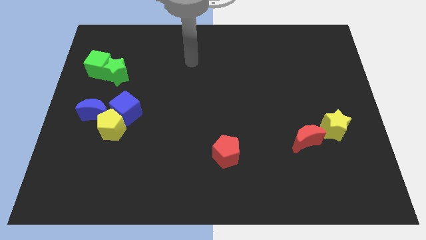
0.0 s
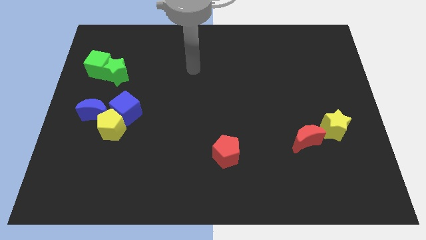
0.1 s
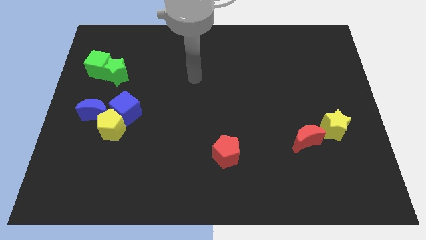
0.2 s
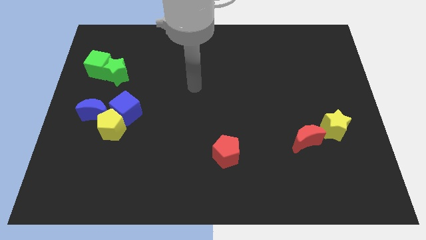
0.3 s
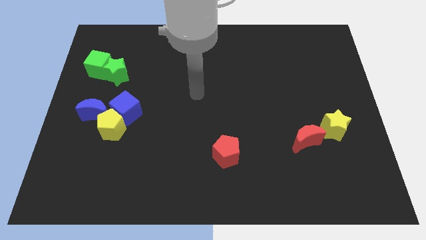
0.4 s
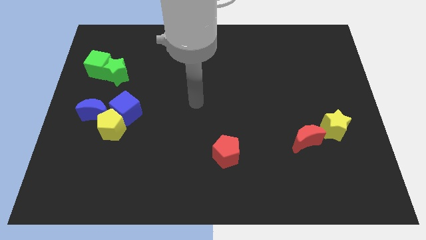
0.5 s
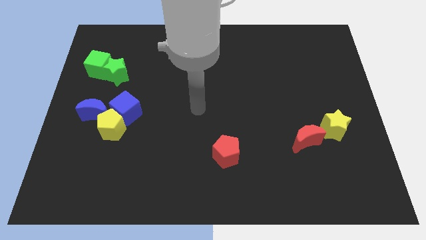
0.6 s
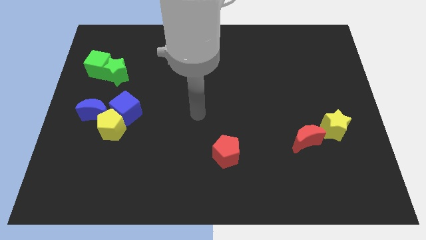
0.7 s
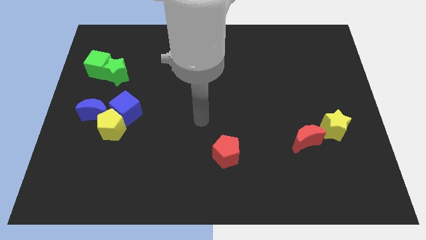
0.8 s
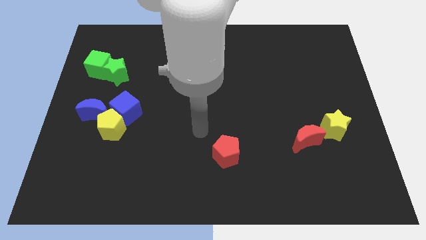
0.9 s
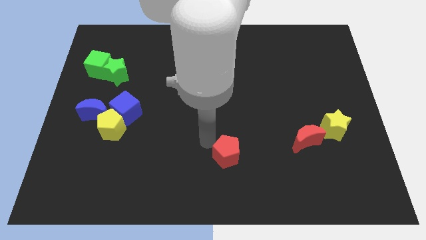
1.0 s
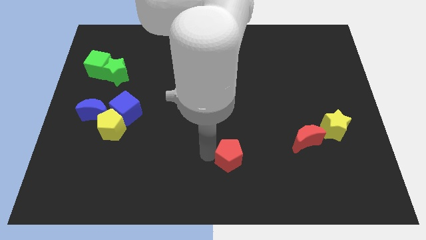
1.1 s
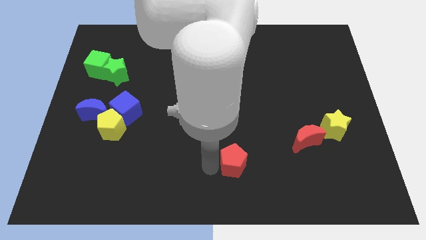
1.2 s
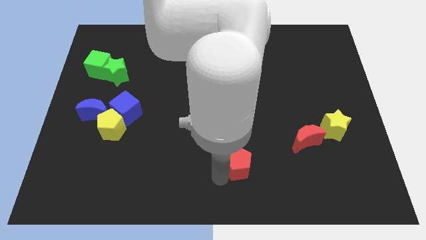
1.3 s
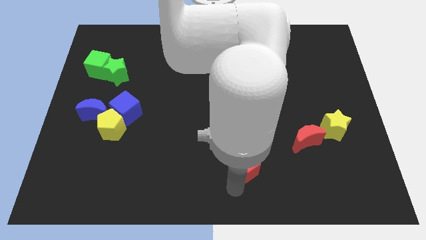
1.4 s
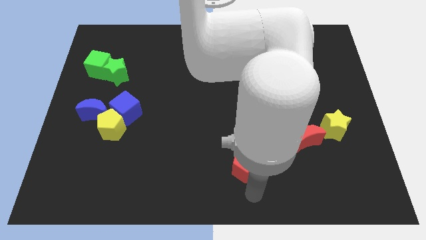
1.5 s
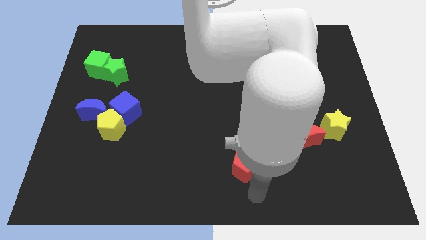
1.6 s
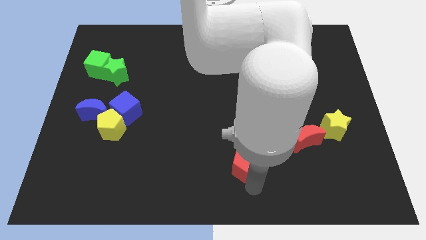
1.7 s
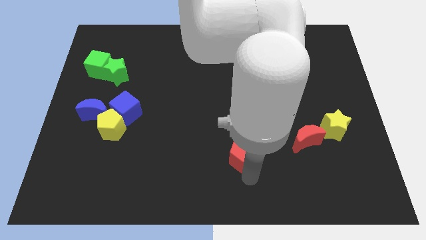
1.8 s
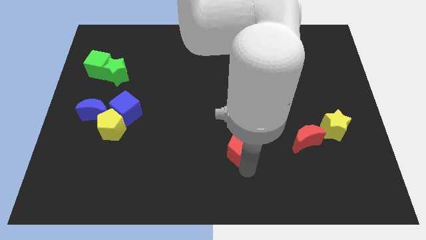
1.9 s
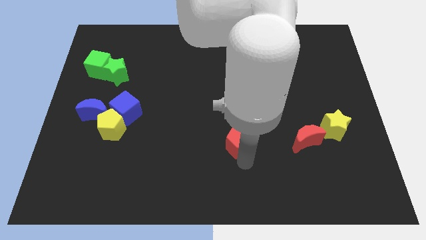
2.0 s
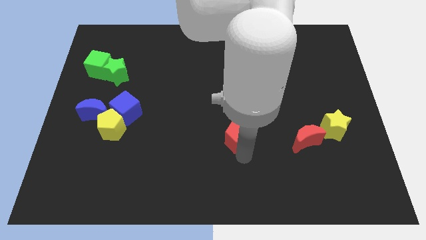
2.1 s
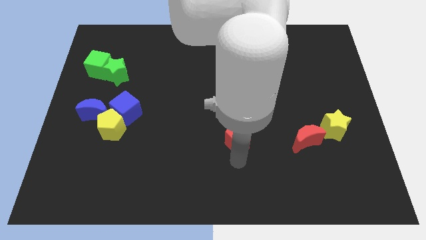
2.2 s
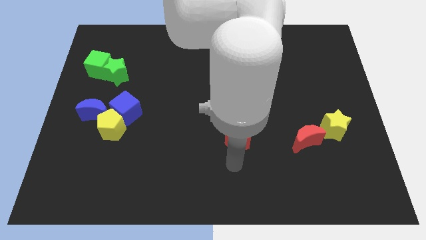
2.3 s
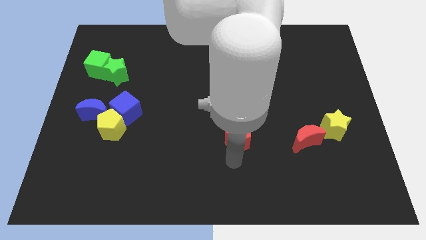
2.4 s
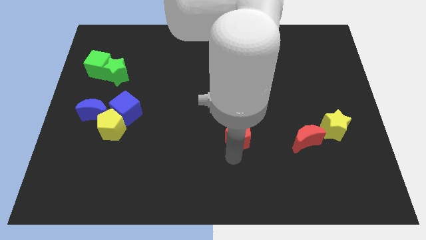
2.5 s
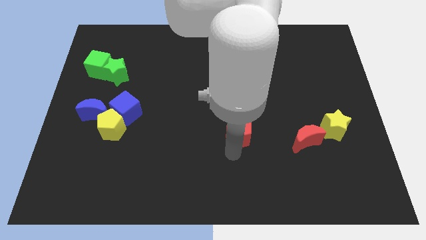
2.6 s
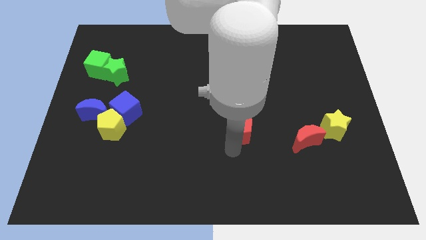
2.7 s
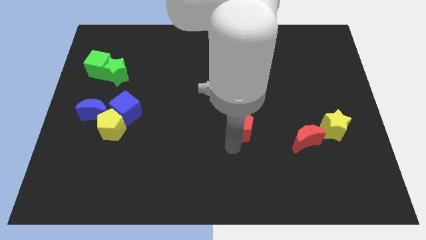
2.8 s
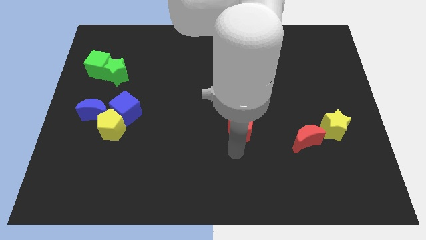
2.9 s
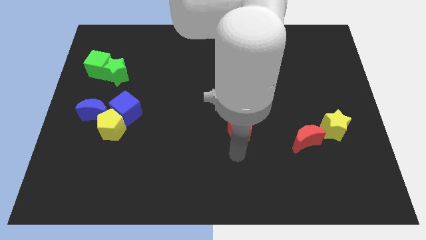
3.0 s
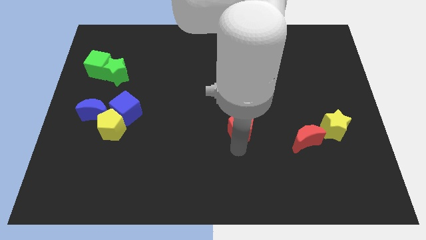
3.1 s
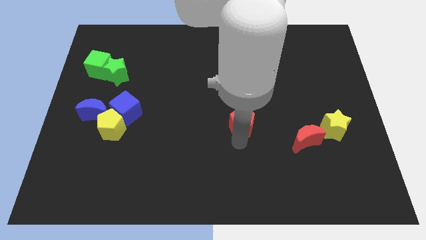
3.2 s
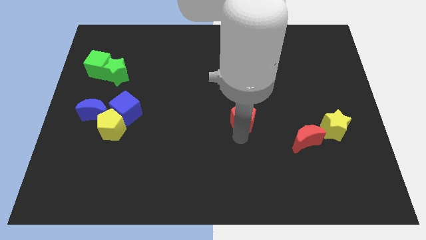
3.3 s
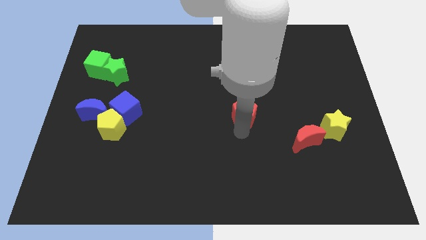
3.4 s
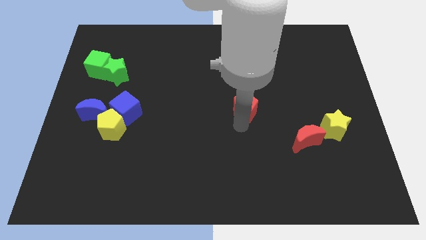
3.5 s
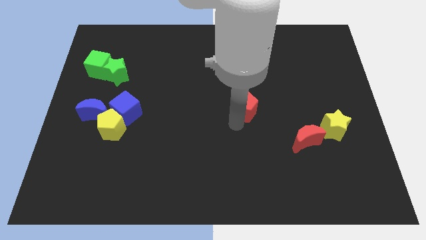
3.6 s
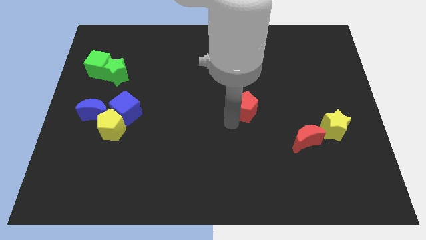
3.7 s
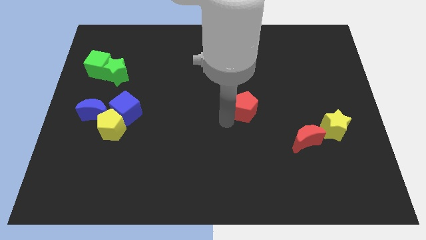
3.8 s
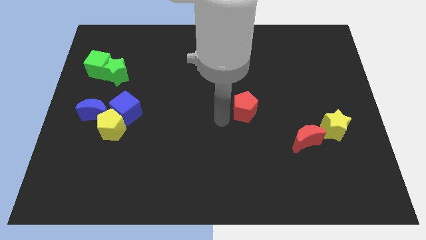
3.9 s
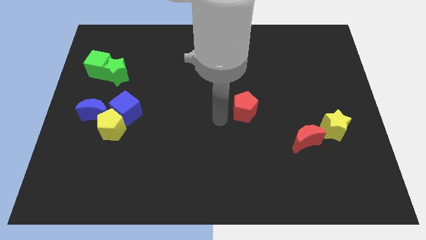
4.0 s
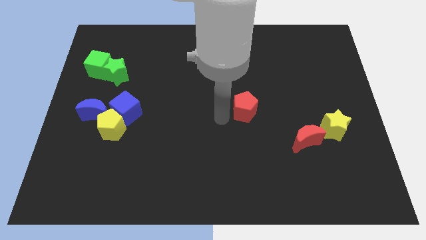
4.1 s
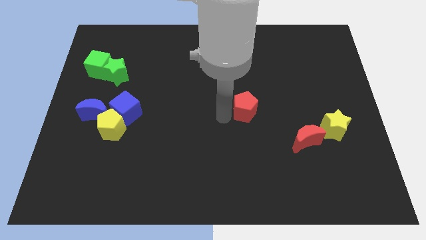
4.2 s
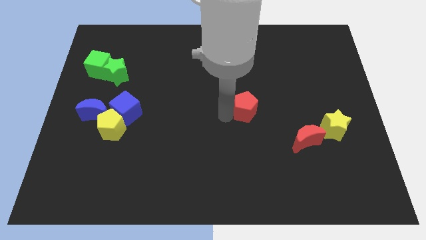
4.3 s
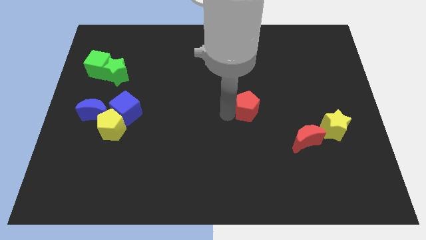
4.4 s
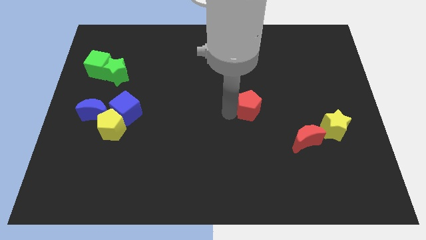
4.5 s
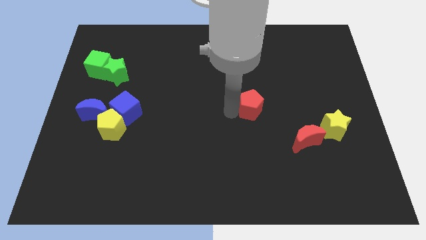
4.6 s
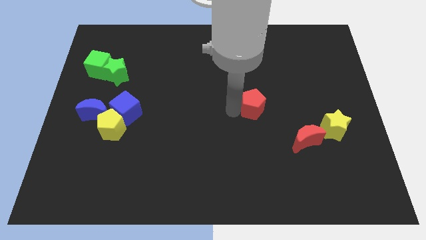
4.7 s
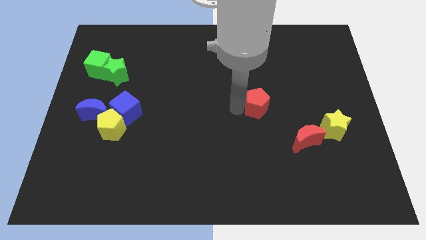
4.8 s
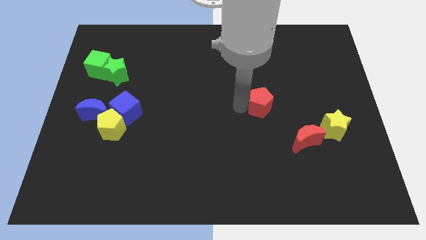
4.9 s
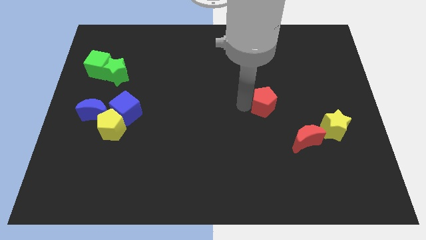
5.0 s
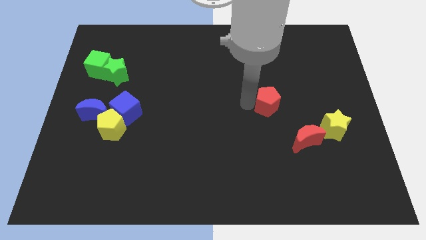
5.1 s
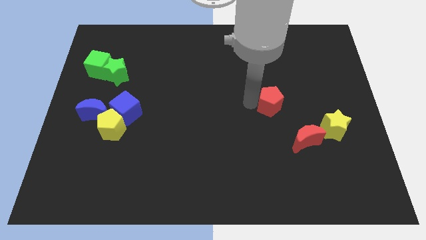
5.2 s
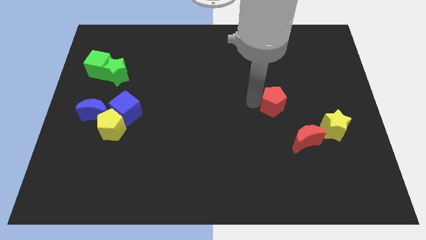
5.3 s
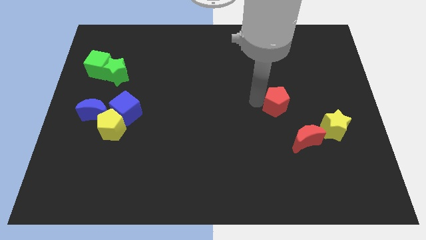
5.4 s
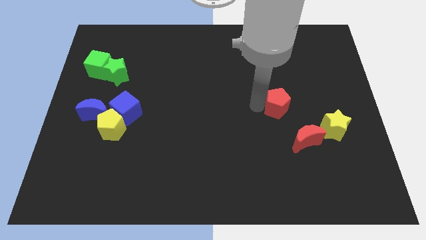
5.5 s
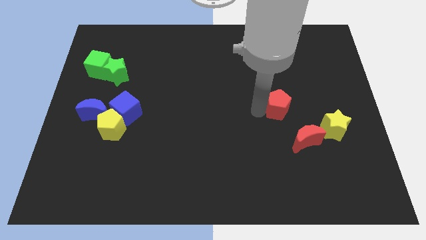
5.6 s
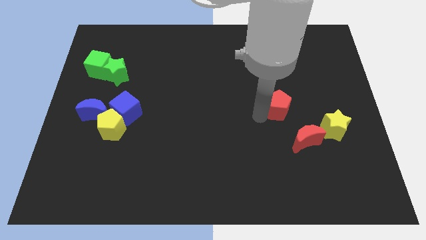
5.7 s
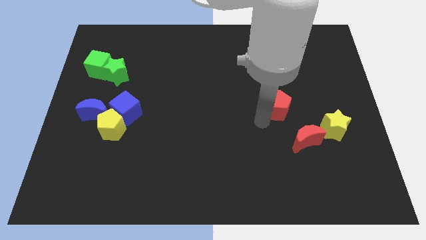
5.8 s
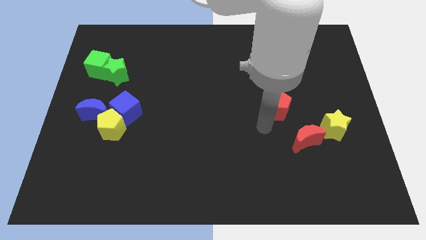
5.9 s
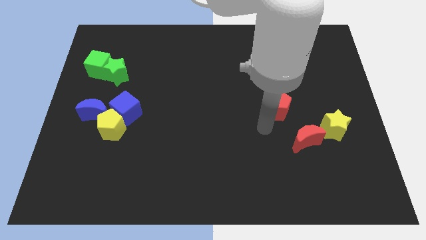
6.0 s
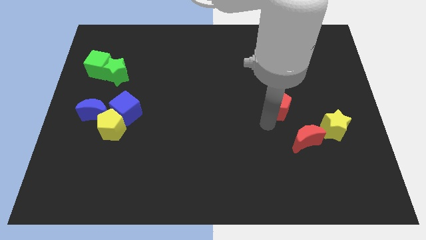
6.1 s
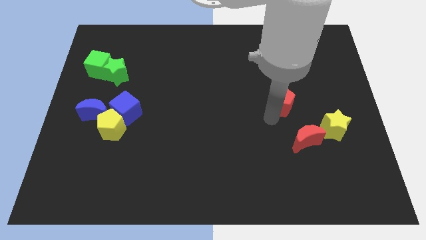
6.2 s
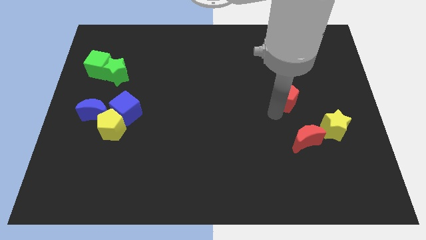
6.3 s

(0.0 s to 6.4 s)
move the red pentagon upwards and to the right diagonally

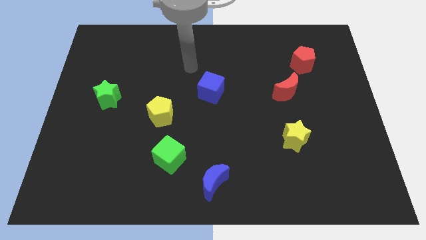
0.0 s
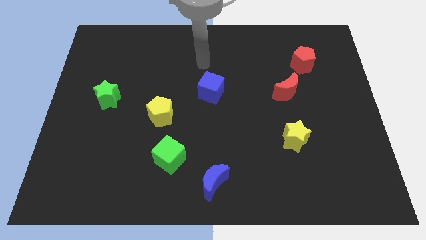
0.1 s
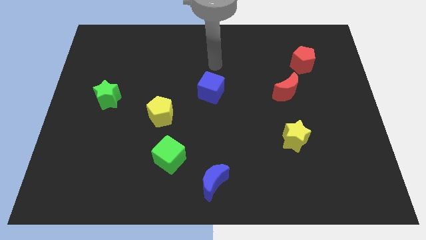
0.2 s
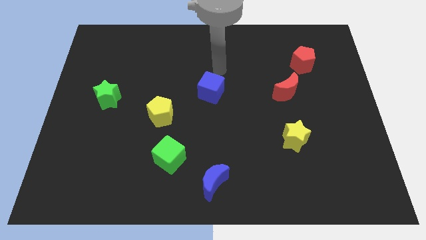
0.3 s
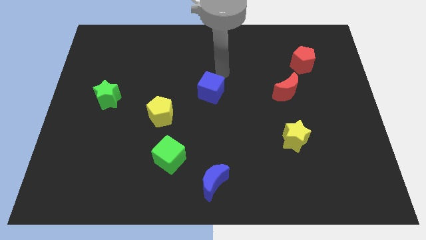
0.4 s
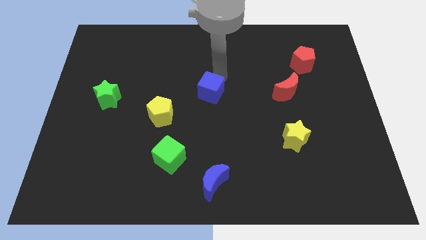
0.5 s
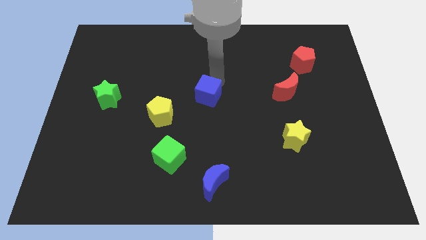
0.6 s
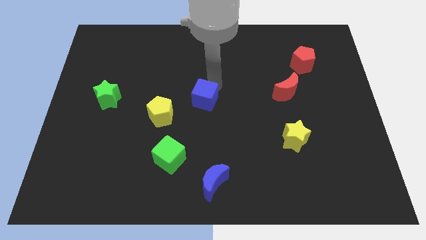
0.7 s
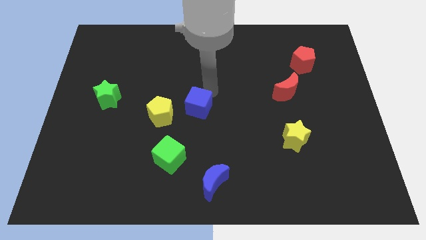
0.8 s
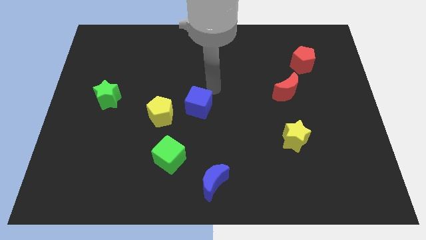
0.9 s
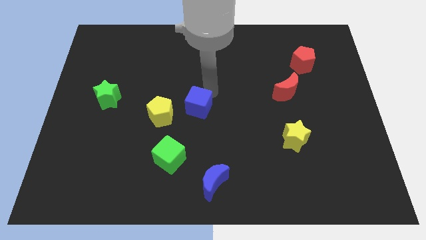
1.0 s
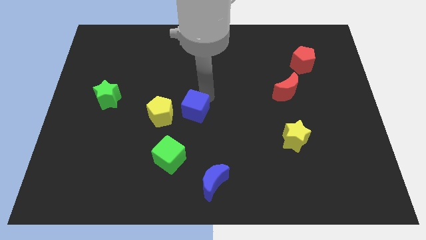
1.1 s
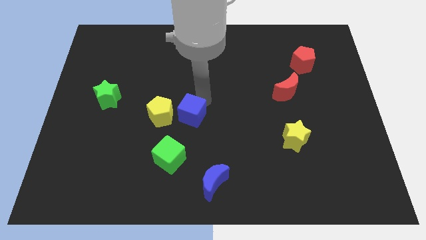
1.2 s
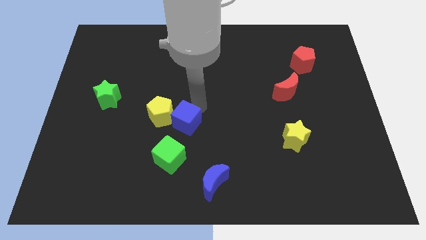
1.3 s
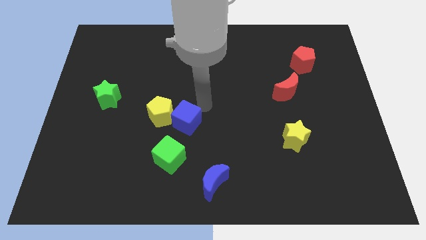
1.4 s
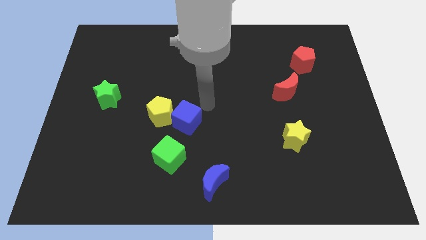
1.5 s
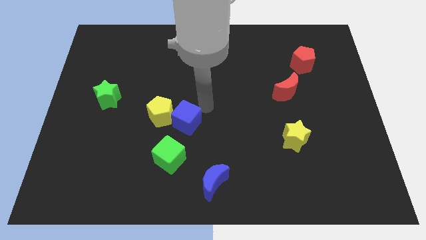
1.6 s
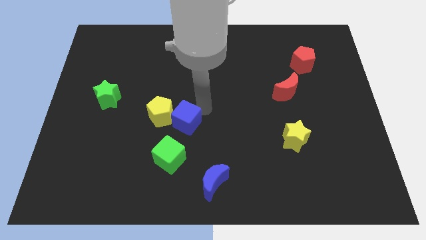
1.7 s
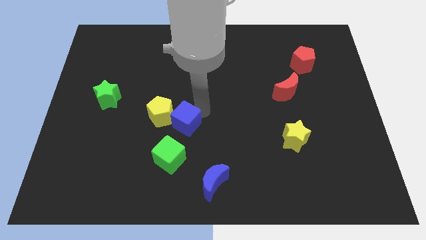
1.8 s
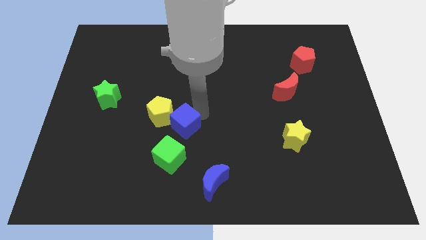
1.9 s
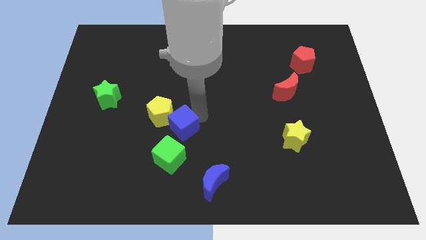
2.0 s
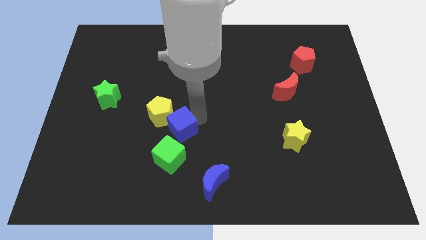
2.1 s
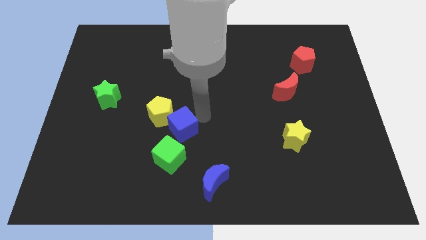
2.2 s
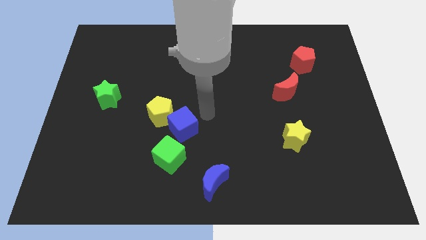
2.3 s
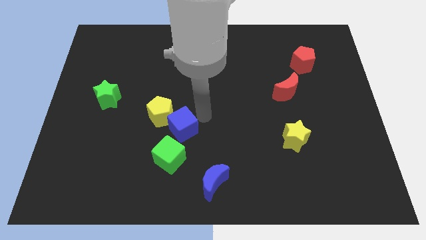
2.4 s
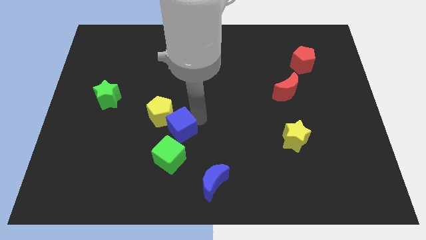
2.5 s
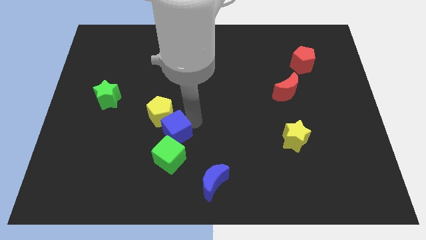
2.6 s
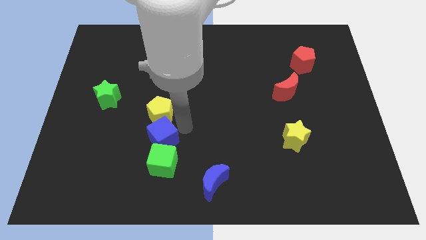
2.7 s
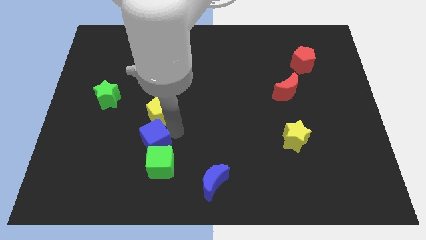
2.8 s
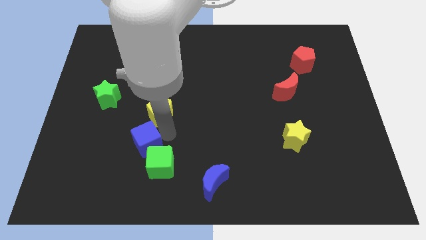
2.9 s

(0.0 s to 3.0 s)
push the blue cube down and left diagonally
